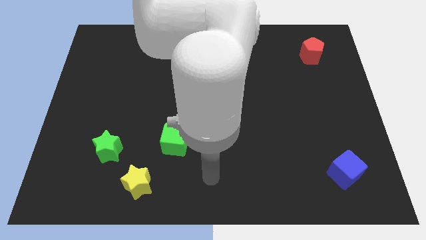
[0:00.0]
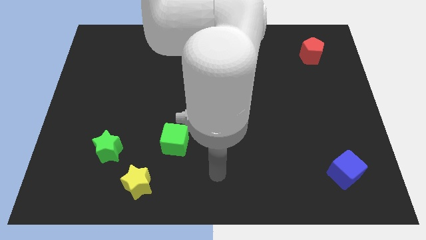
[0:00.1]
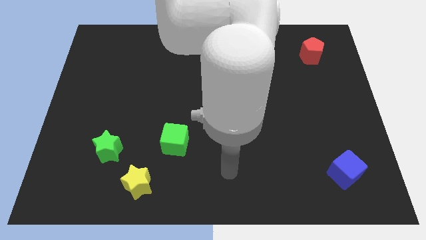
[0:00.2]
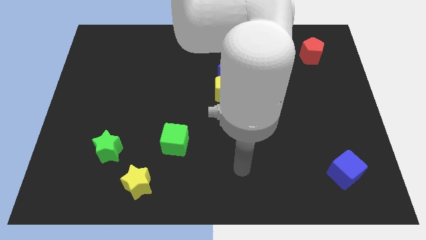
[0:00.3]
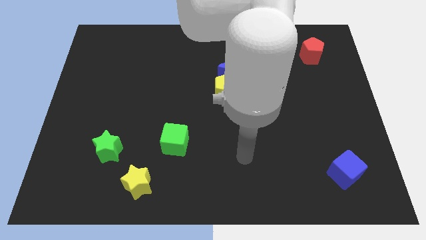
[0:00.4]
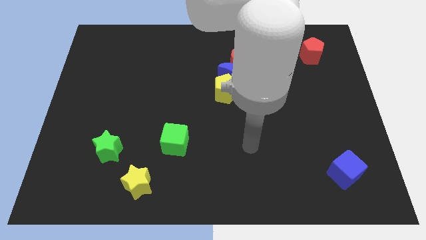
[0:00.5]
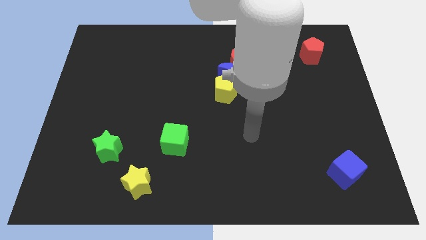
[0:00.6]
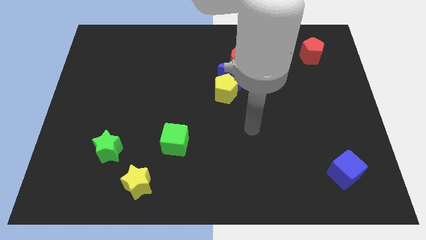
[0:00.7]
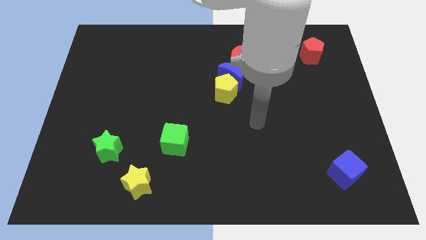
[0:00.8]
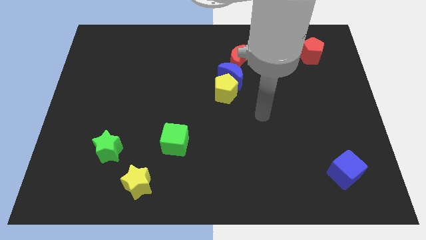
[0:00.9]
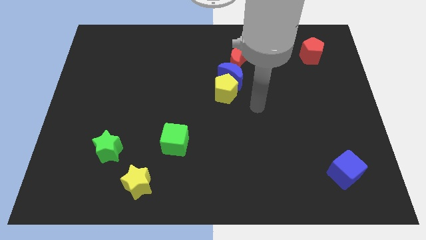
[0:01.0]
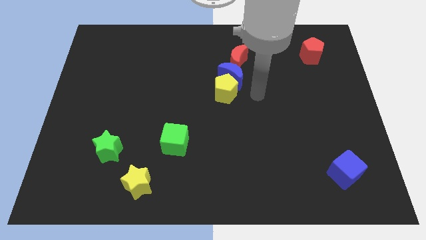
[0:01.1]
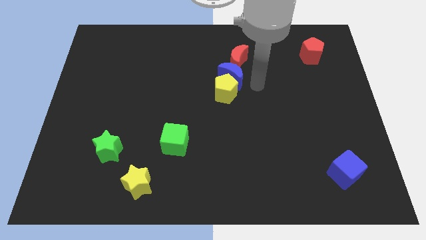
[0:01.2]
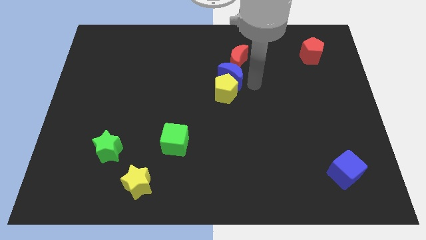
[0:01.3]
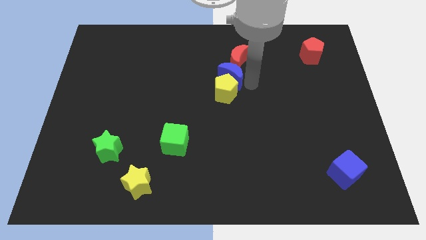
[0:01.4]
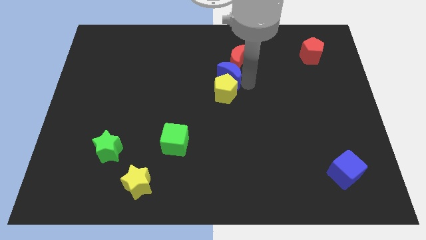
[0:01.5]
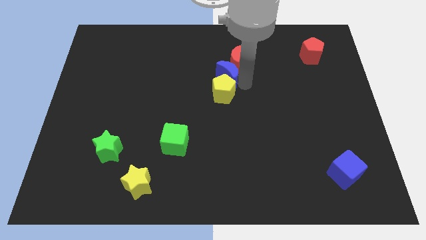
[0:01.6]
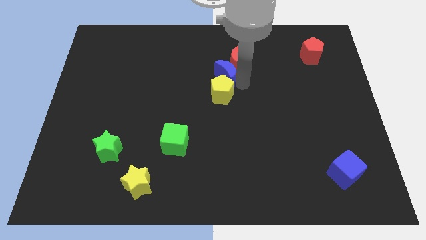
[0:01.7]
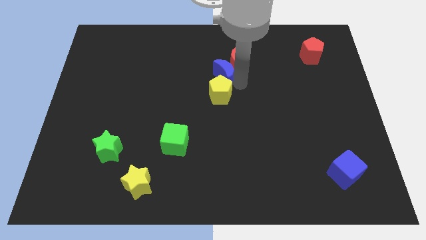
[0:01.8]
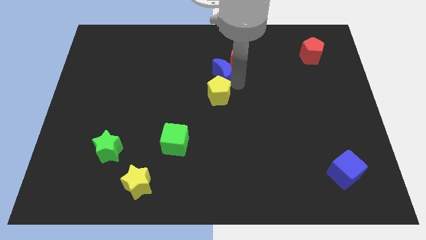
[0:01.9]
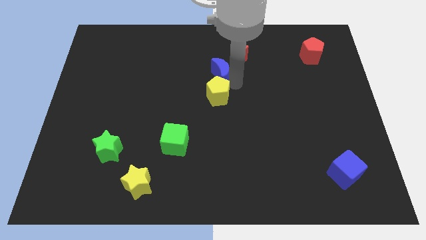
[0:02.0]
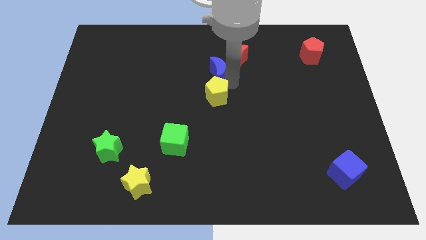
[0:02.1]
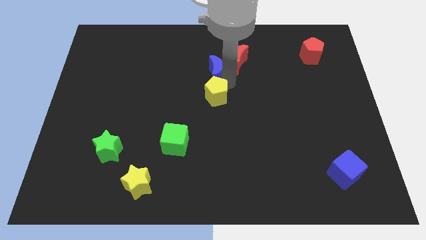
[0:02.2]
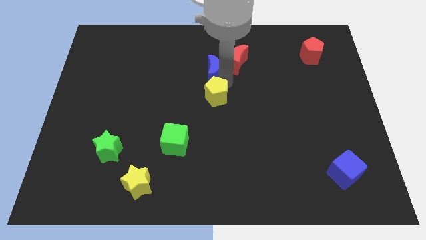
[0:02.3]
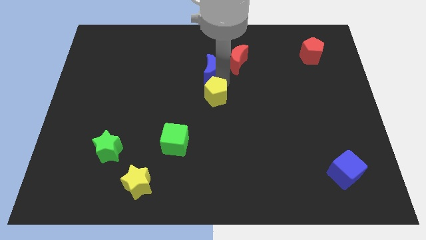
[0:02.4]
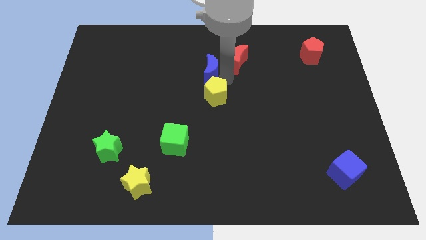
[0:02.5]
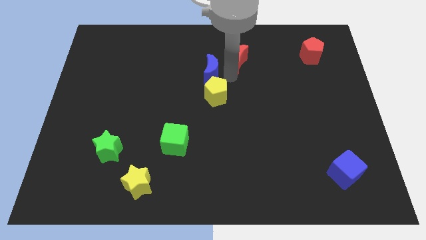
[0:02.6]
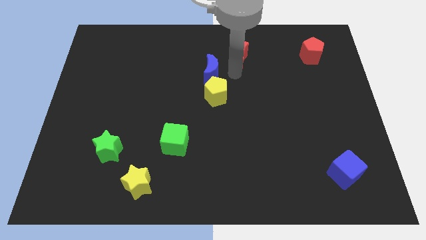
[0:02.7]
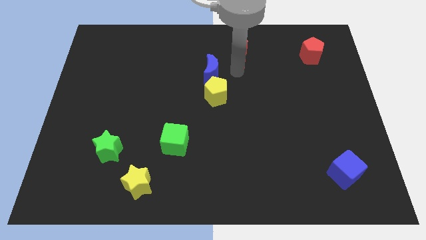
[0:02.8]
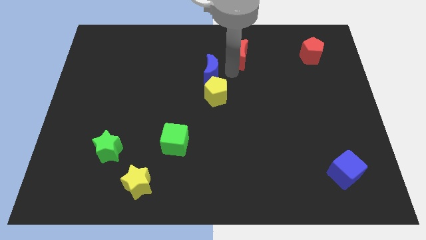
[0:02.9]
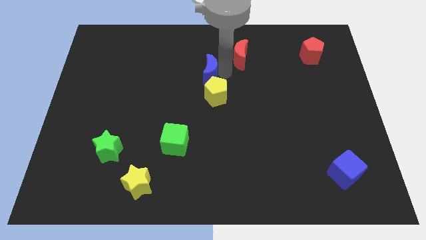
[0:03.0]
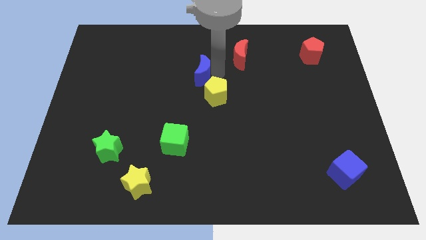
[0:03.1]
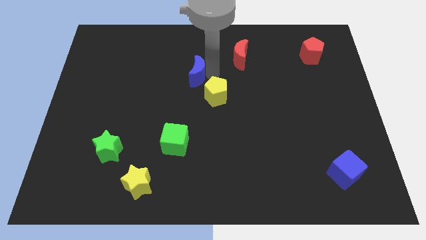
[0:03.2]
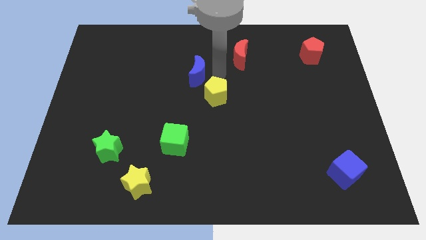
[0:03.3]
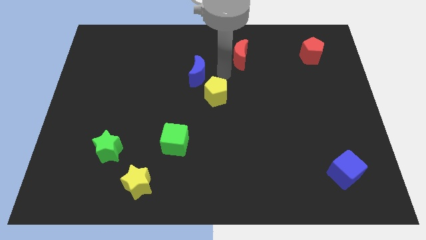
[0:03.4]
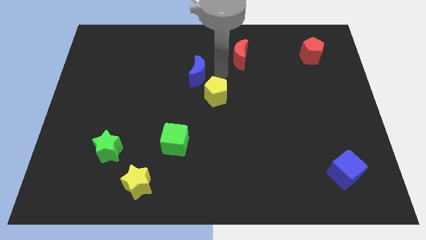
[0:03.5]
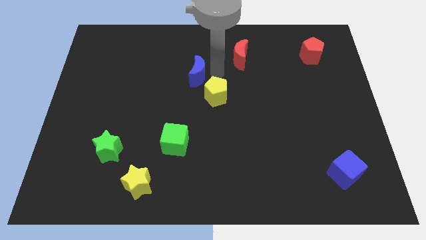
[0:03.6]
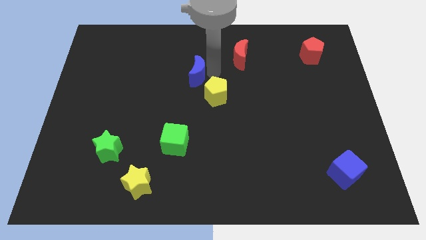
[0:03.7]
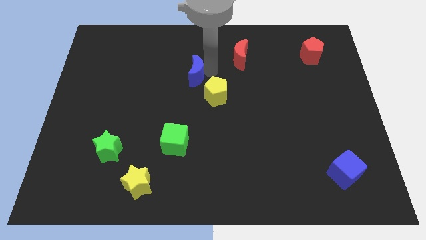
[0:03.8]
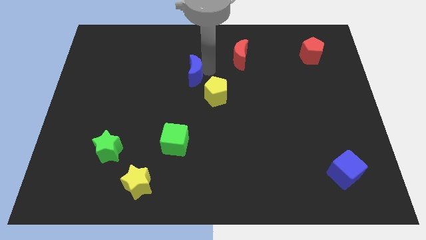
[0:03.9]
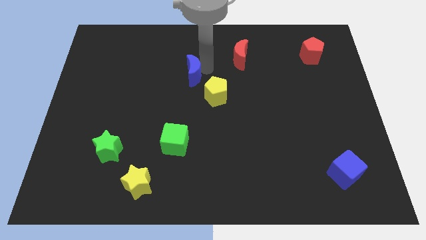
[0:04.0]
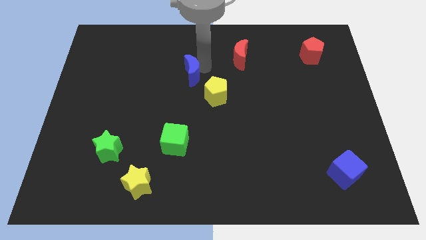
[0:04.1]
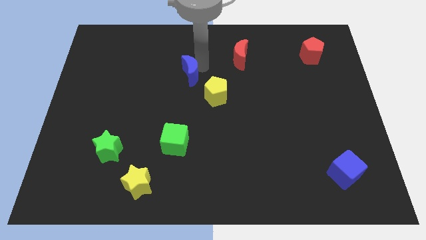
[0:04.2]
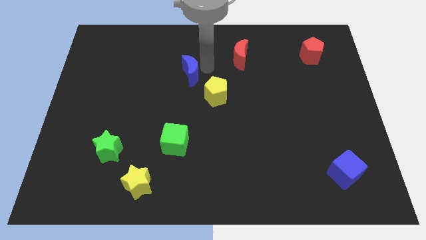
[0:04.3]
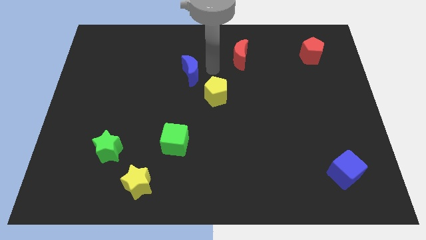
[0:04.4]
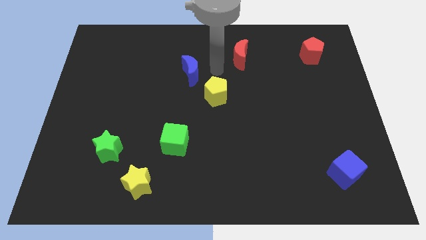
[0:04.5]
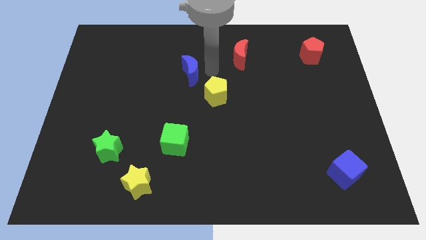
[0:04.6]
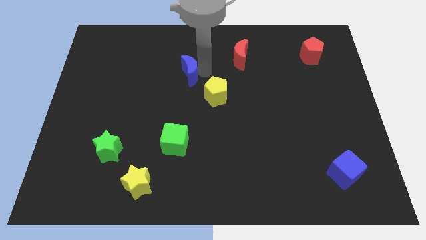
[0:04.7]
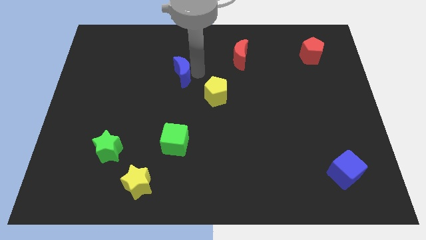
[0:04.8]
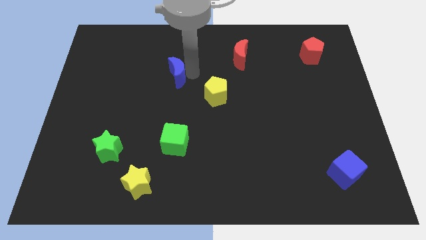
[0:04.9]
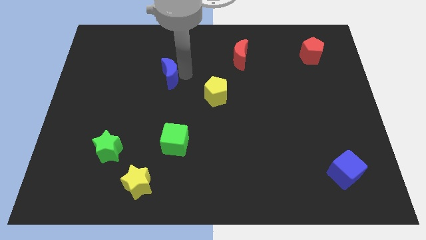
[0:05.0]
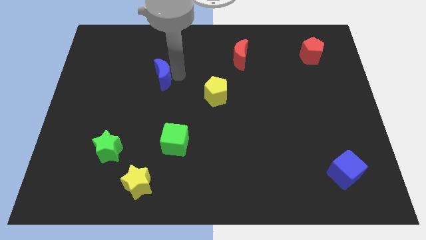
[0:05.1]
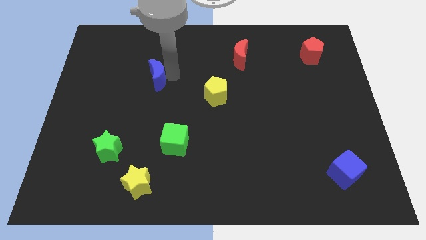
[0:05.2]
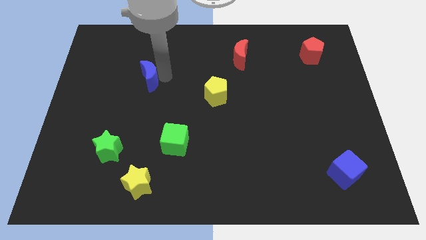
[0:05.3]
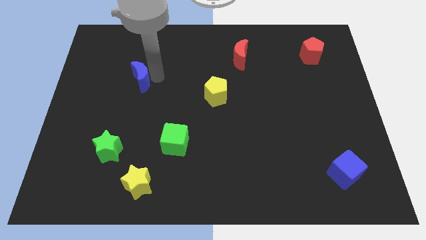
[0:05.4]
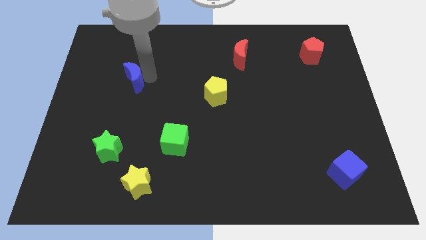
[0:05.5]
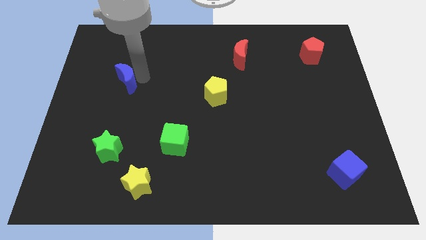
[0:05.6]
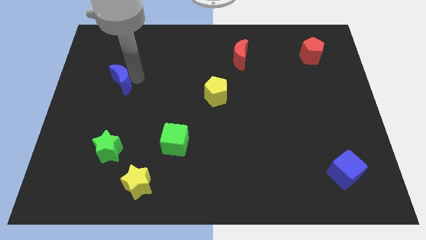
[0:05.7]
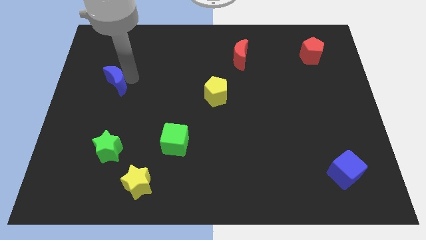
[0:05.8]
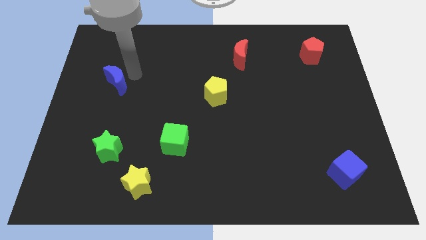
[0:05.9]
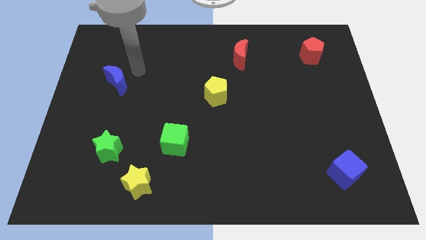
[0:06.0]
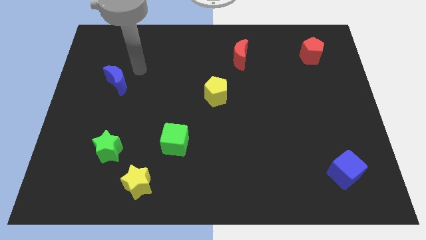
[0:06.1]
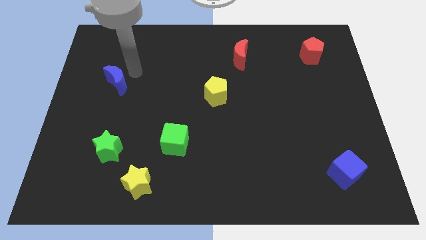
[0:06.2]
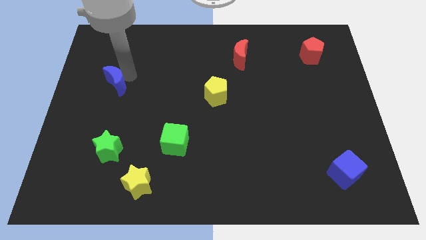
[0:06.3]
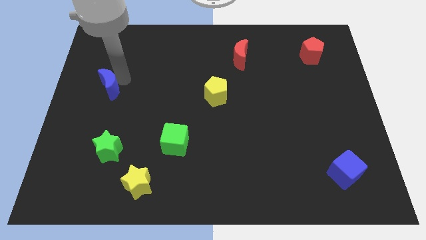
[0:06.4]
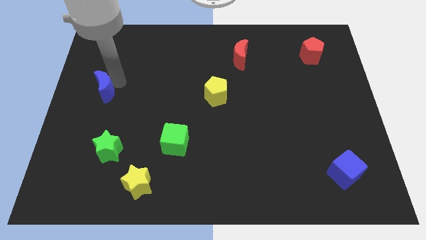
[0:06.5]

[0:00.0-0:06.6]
move the blue moon to the left side
